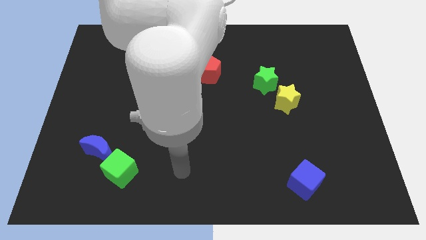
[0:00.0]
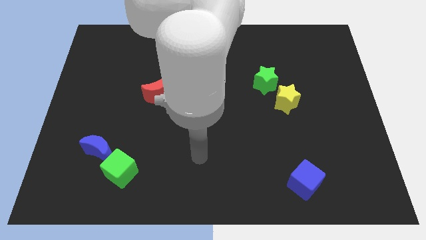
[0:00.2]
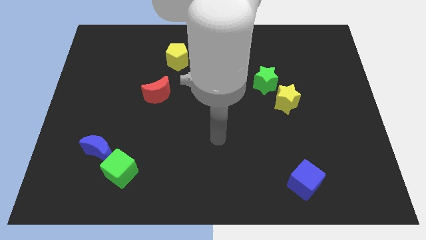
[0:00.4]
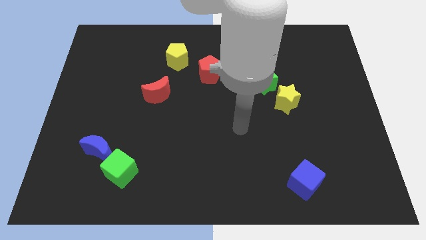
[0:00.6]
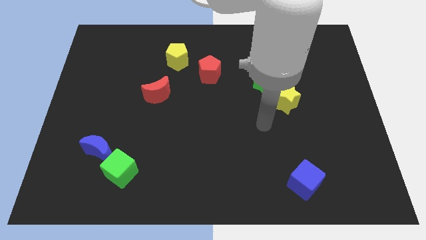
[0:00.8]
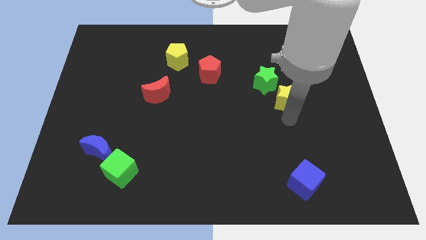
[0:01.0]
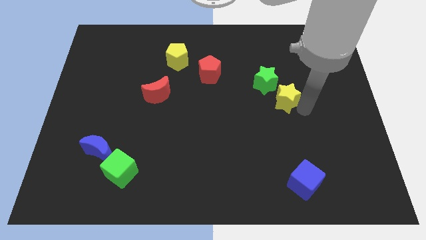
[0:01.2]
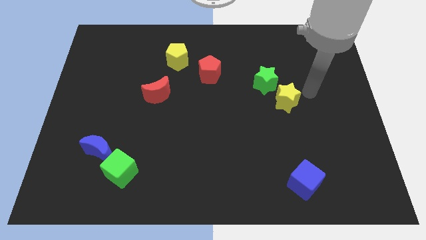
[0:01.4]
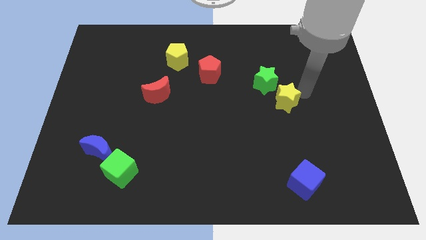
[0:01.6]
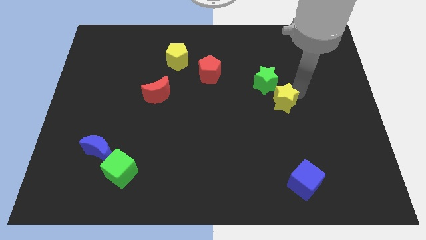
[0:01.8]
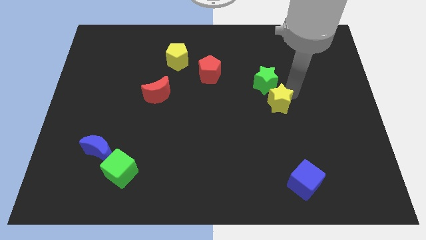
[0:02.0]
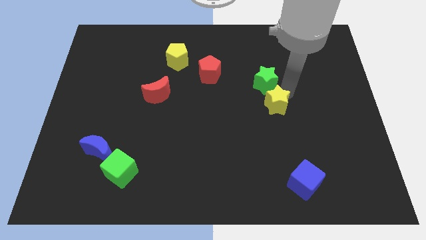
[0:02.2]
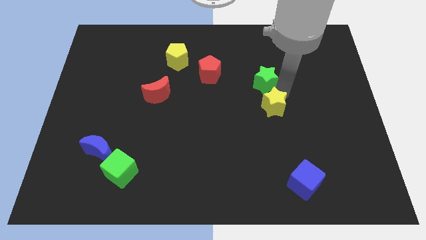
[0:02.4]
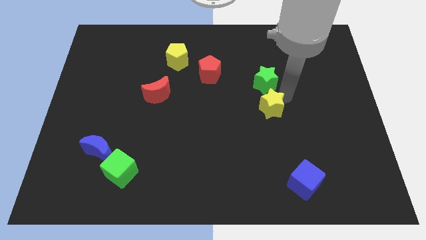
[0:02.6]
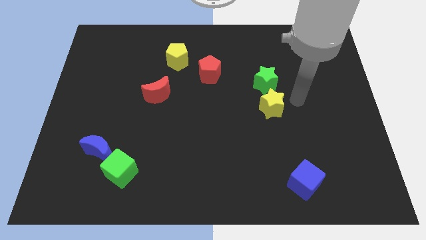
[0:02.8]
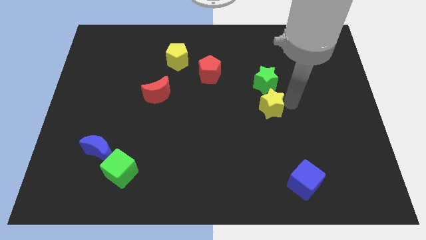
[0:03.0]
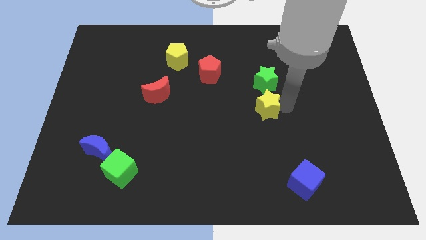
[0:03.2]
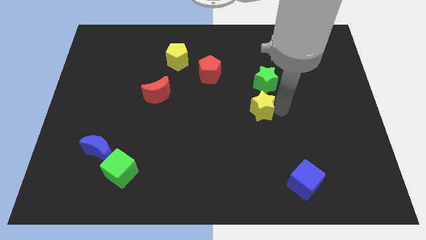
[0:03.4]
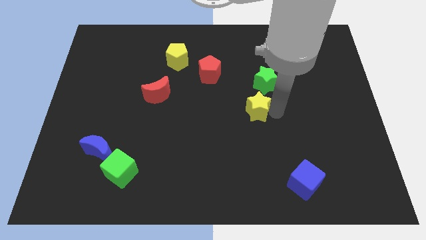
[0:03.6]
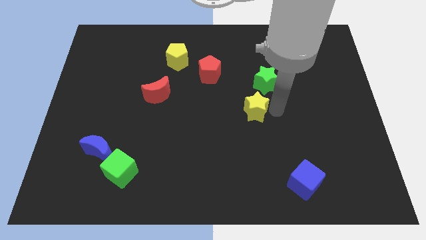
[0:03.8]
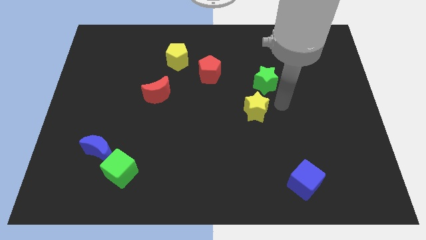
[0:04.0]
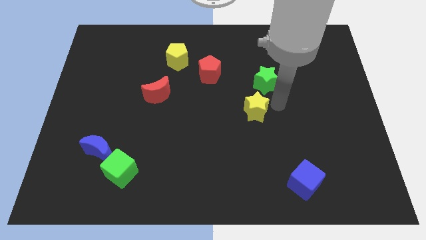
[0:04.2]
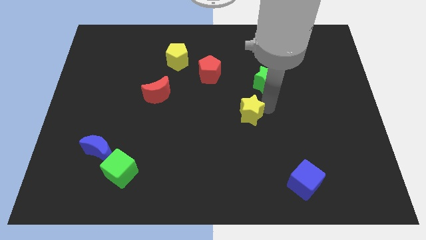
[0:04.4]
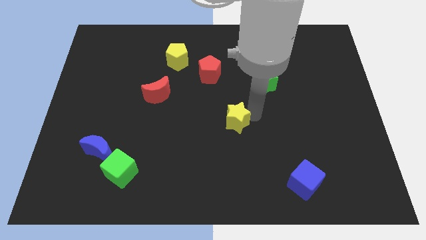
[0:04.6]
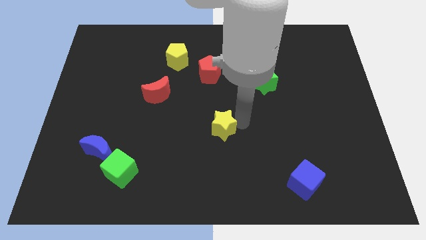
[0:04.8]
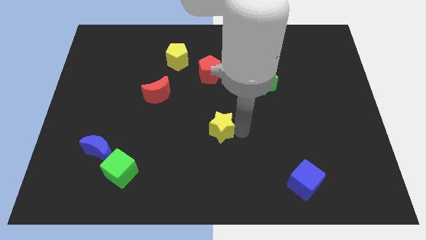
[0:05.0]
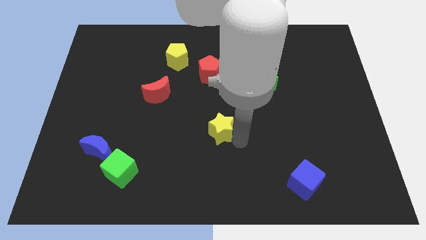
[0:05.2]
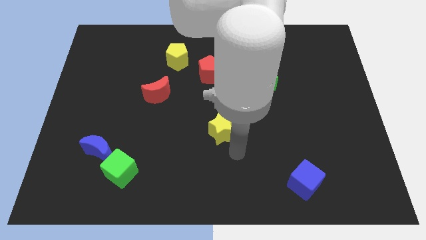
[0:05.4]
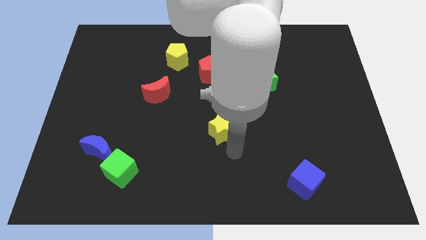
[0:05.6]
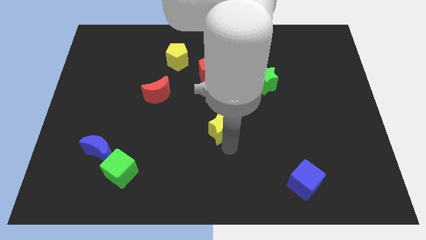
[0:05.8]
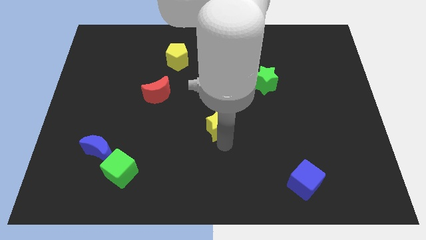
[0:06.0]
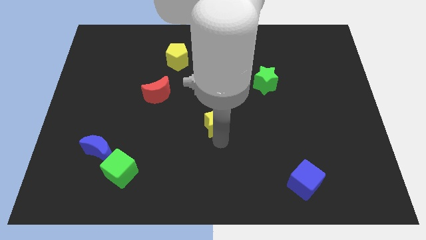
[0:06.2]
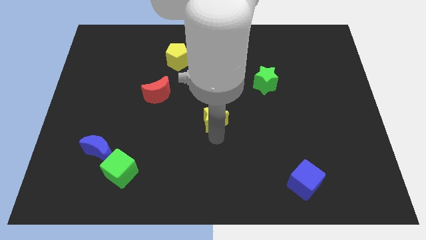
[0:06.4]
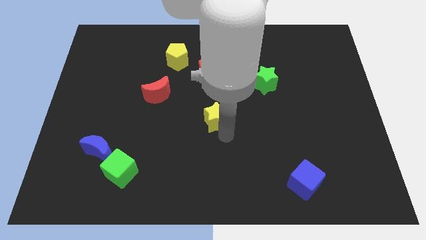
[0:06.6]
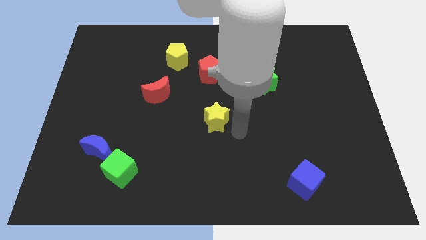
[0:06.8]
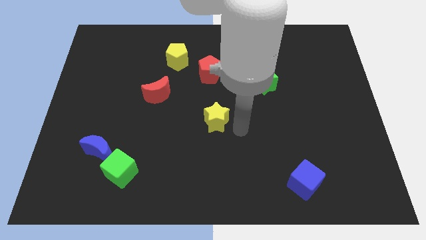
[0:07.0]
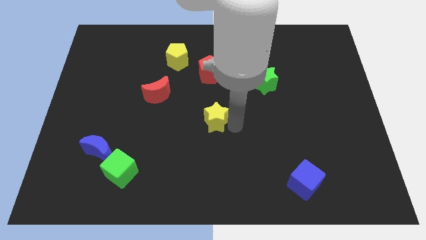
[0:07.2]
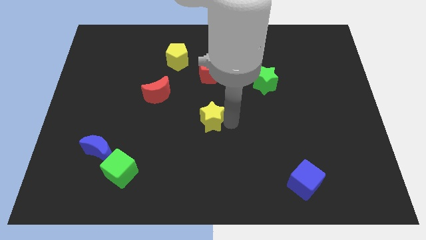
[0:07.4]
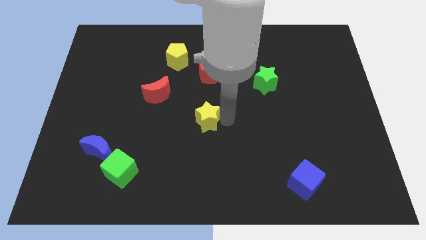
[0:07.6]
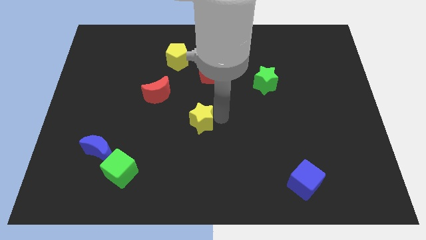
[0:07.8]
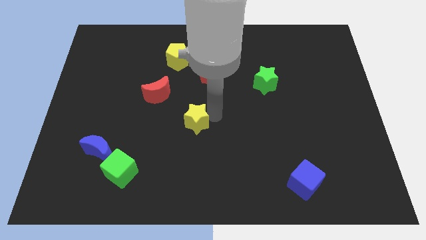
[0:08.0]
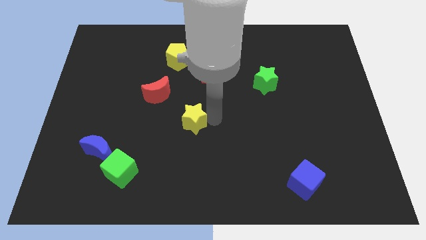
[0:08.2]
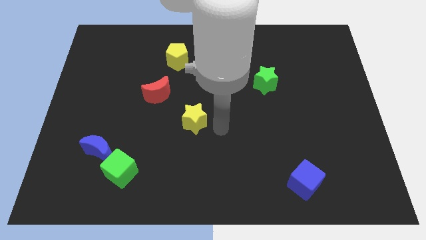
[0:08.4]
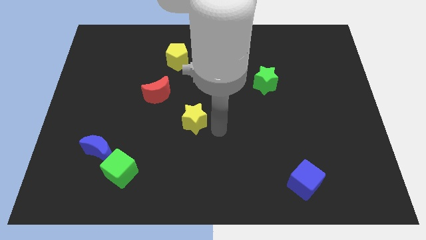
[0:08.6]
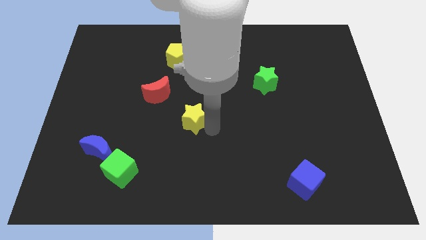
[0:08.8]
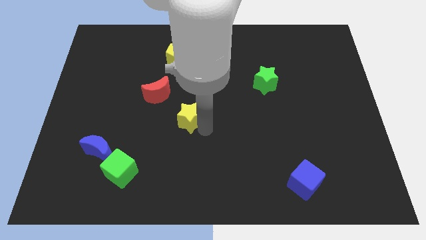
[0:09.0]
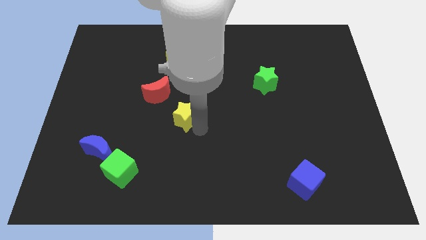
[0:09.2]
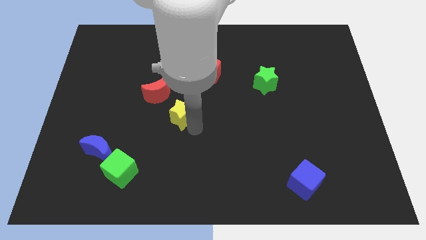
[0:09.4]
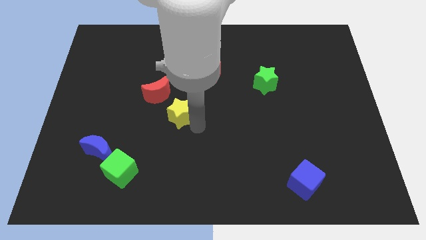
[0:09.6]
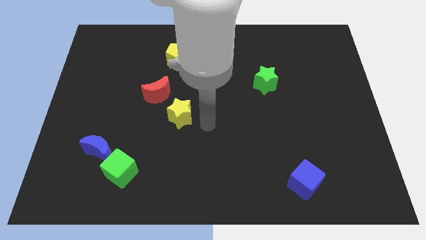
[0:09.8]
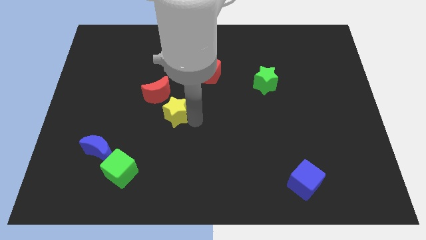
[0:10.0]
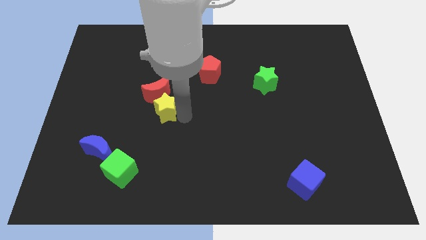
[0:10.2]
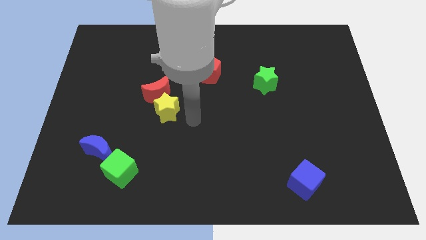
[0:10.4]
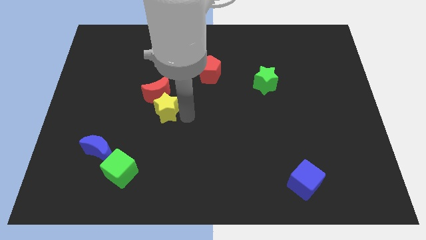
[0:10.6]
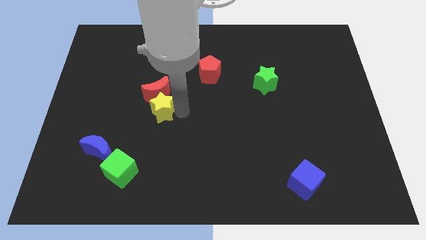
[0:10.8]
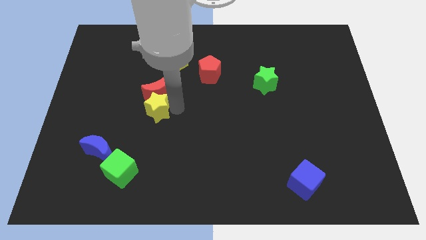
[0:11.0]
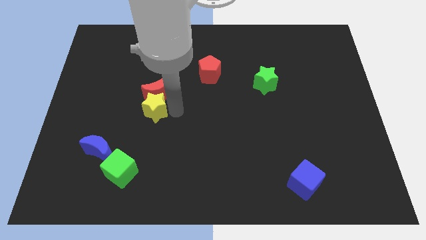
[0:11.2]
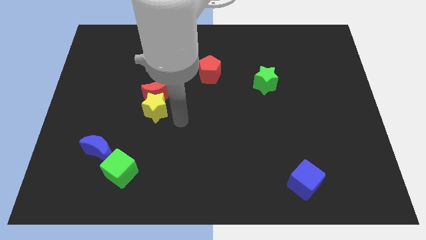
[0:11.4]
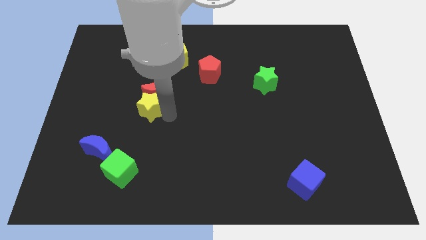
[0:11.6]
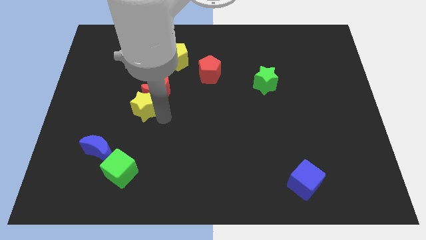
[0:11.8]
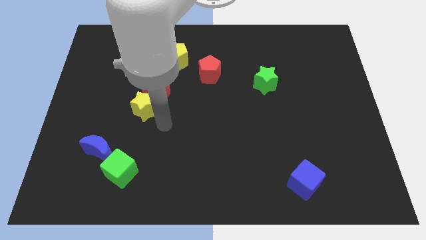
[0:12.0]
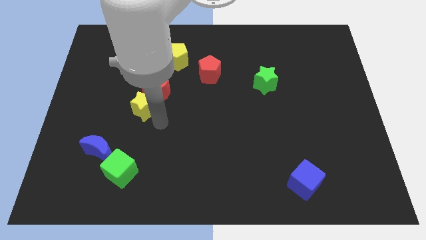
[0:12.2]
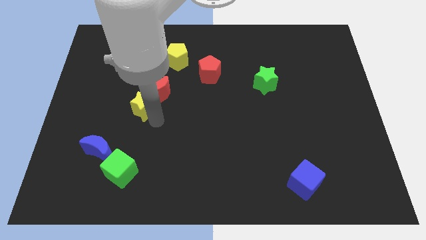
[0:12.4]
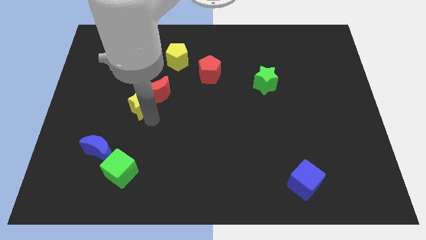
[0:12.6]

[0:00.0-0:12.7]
put the yellow star left of the red moon

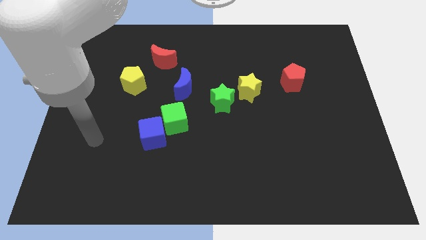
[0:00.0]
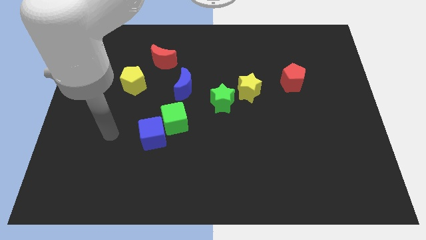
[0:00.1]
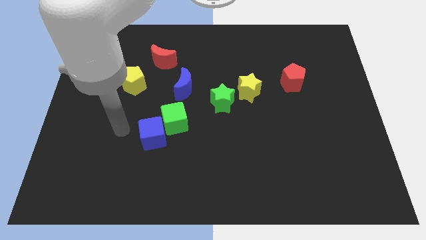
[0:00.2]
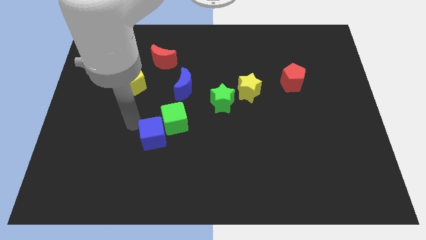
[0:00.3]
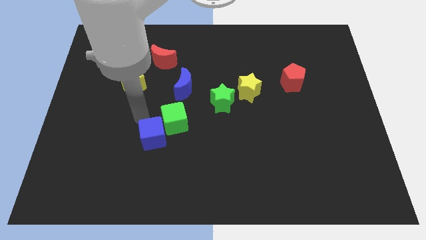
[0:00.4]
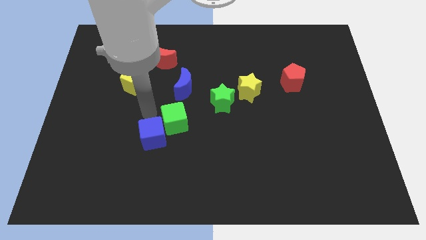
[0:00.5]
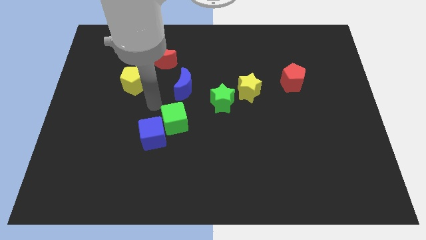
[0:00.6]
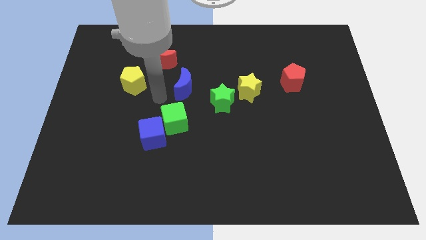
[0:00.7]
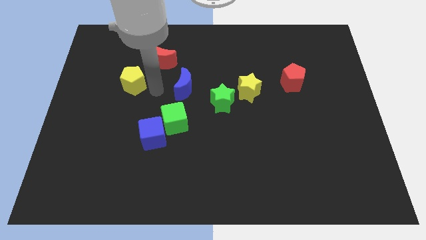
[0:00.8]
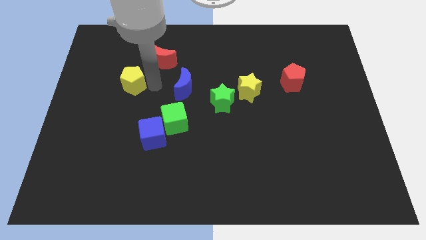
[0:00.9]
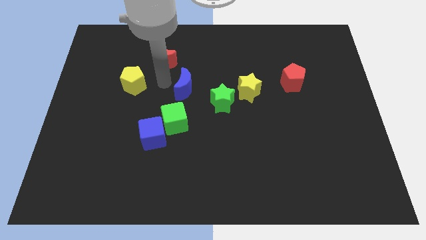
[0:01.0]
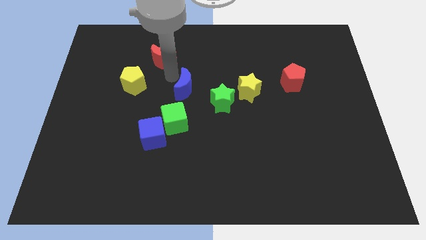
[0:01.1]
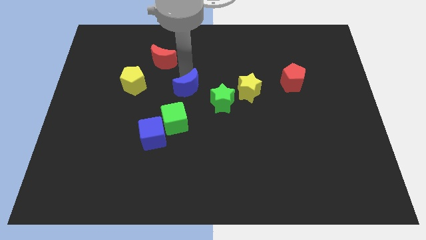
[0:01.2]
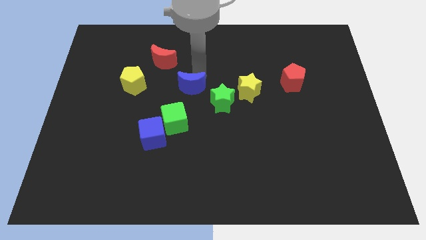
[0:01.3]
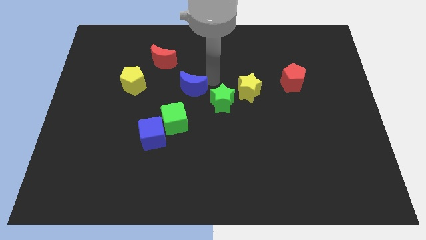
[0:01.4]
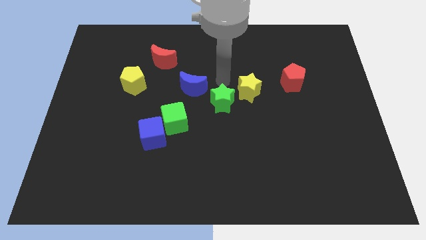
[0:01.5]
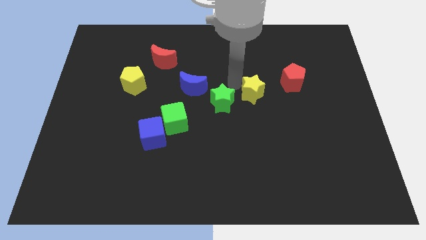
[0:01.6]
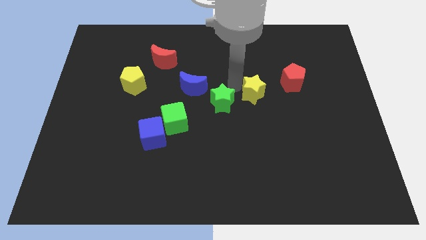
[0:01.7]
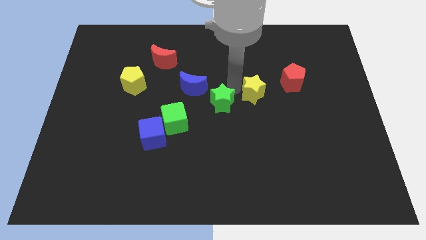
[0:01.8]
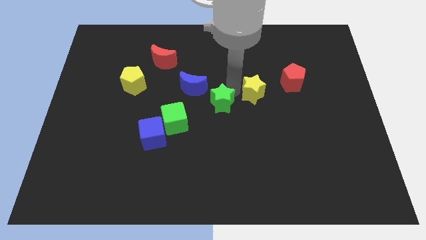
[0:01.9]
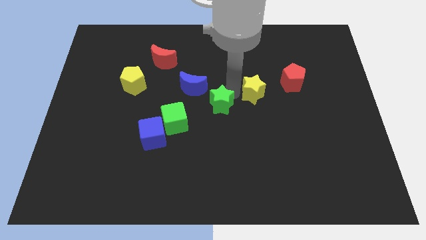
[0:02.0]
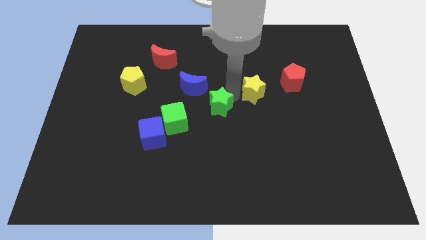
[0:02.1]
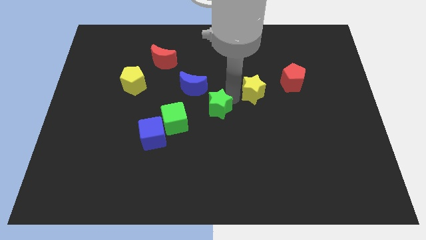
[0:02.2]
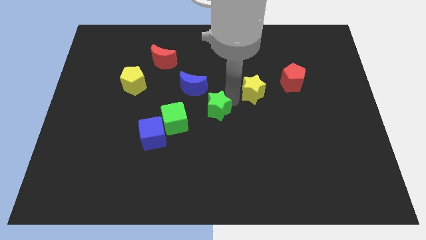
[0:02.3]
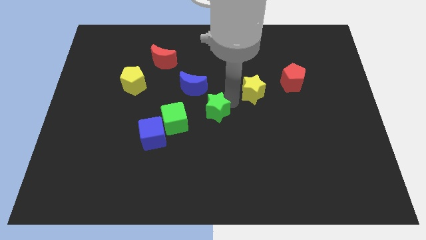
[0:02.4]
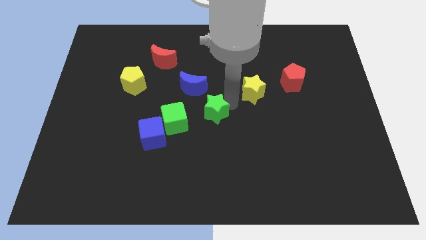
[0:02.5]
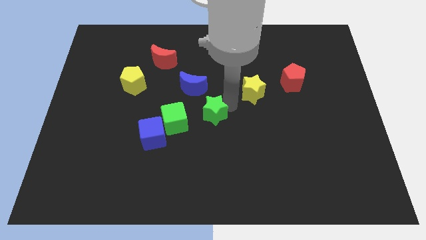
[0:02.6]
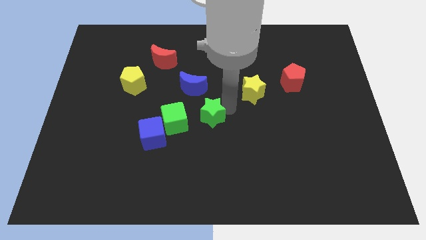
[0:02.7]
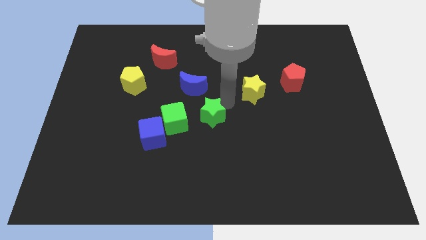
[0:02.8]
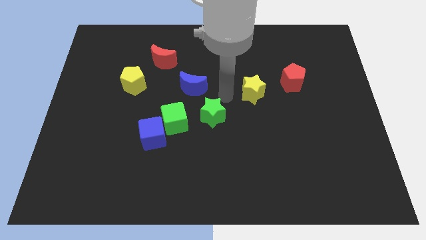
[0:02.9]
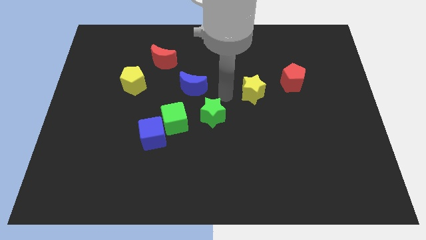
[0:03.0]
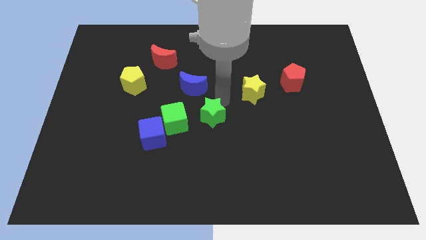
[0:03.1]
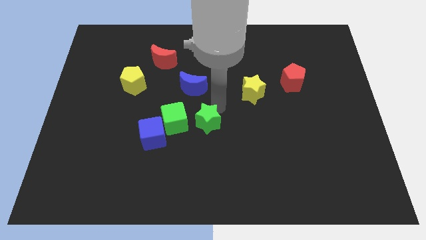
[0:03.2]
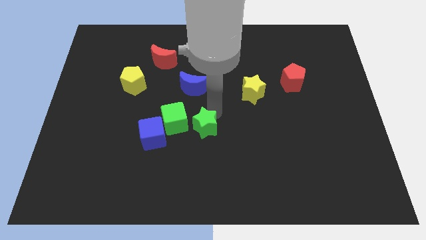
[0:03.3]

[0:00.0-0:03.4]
push the green star diagonally down and to the right of the green cube
